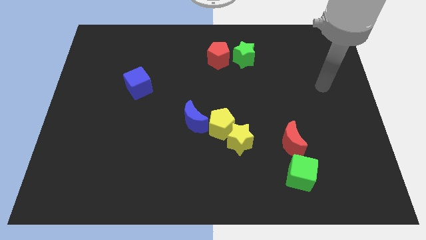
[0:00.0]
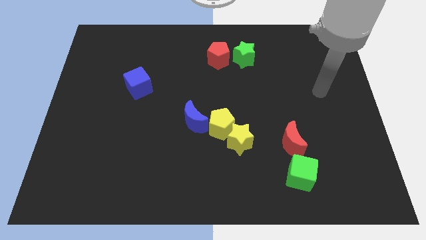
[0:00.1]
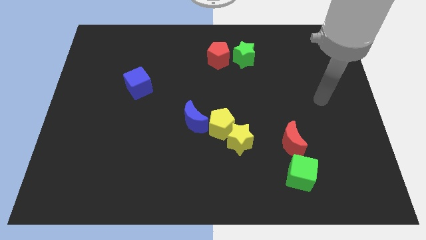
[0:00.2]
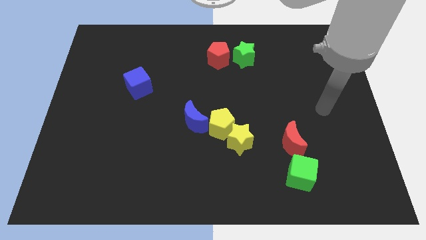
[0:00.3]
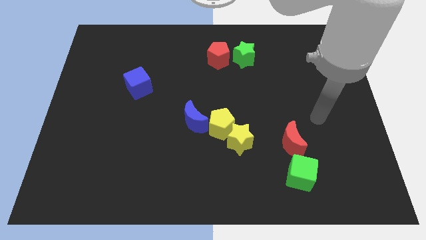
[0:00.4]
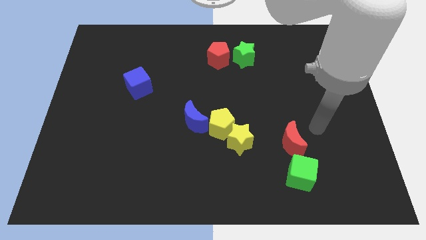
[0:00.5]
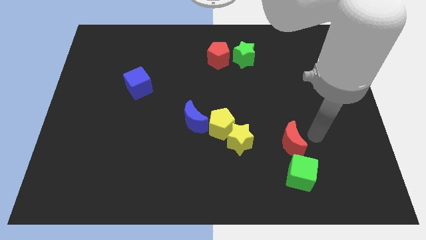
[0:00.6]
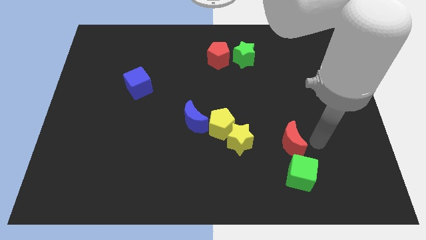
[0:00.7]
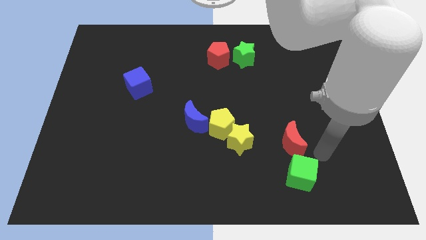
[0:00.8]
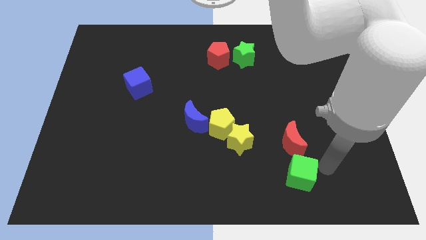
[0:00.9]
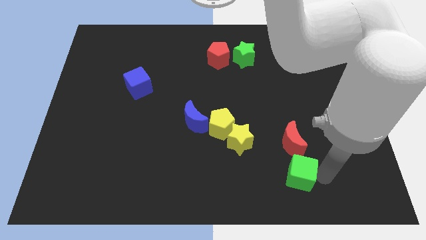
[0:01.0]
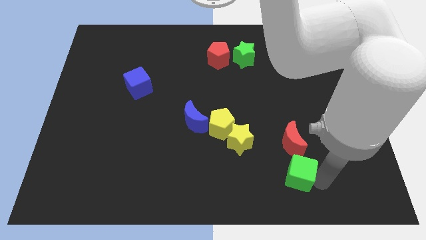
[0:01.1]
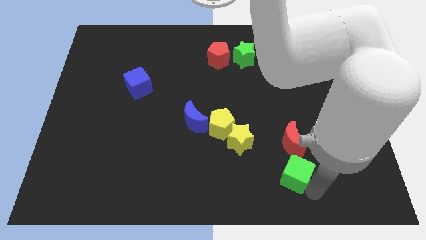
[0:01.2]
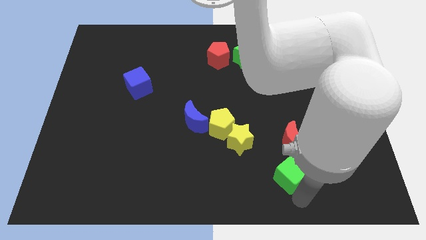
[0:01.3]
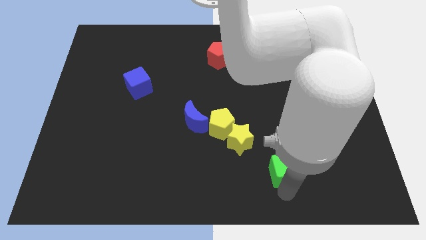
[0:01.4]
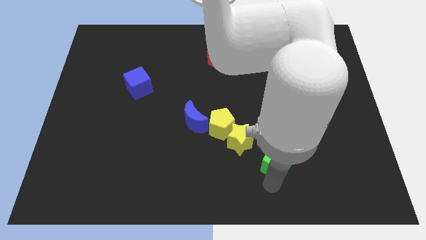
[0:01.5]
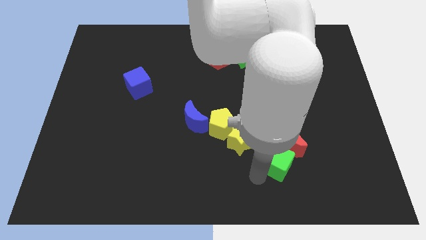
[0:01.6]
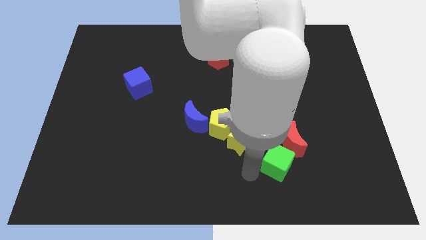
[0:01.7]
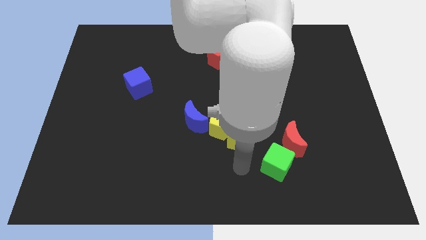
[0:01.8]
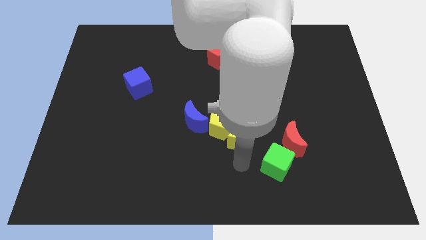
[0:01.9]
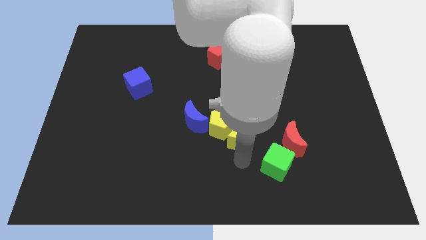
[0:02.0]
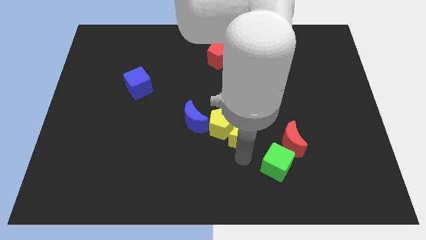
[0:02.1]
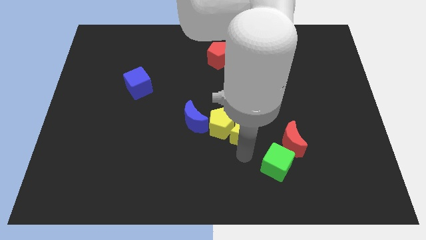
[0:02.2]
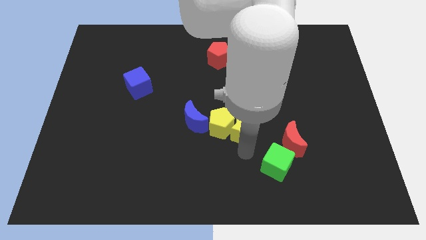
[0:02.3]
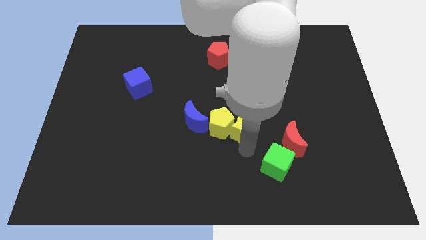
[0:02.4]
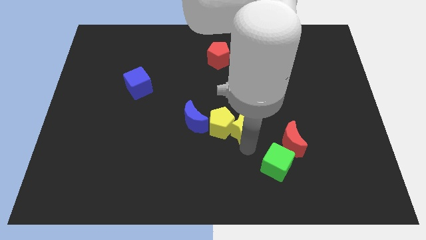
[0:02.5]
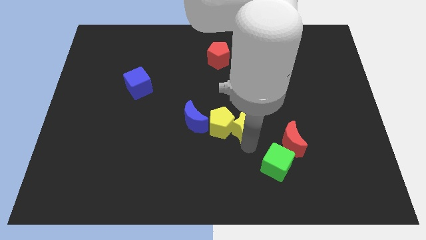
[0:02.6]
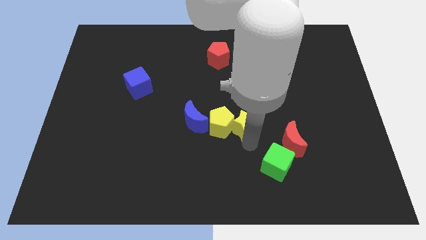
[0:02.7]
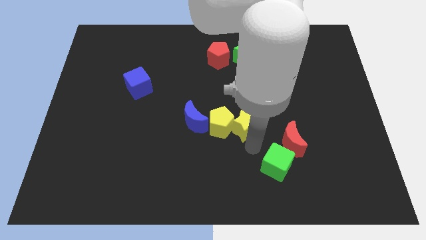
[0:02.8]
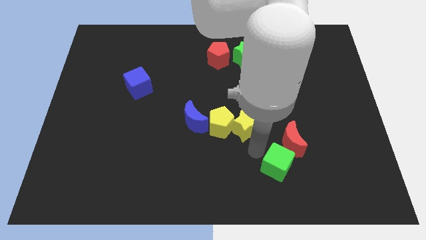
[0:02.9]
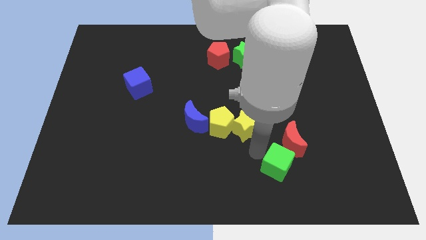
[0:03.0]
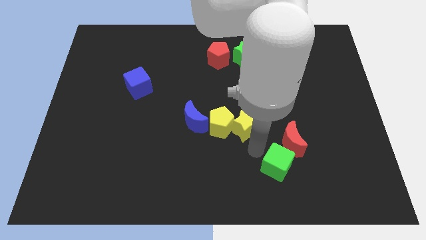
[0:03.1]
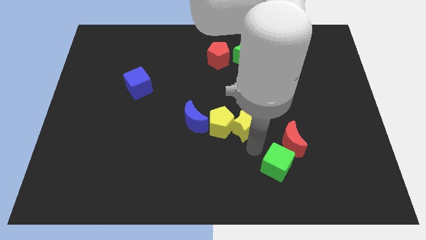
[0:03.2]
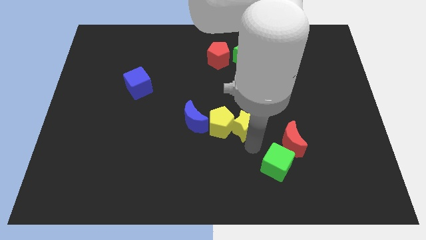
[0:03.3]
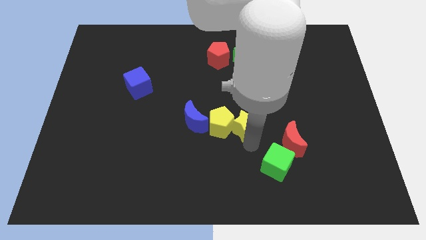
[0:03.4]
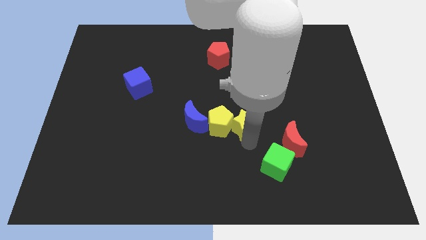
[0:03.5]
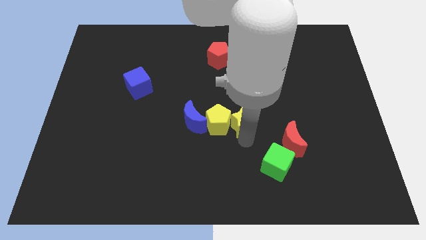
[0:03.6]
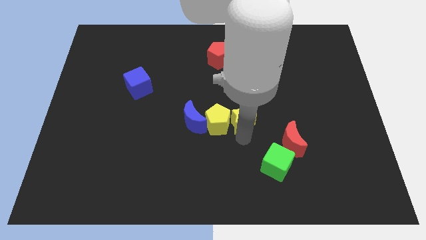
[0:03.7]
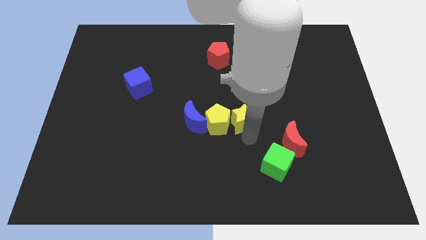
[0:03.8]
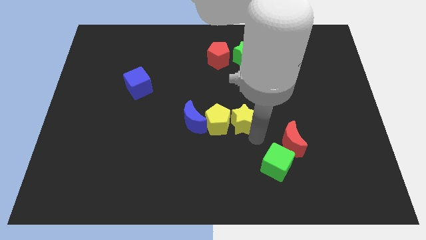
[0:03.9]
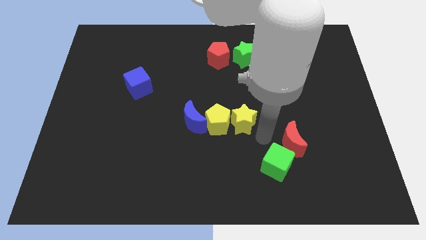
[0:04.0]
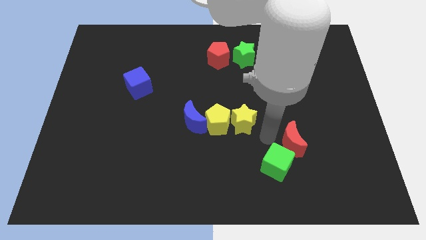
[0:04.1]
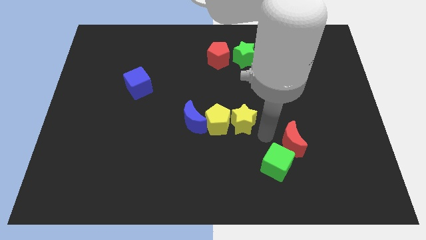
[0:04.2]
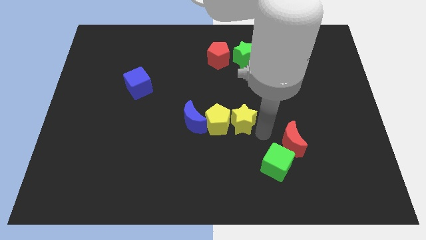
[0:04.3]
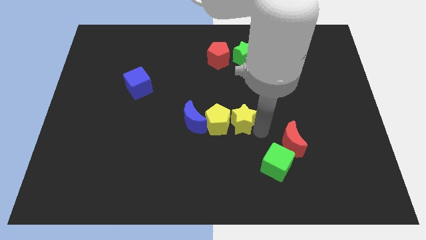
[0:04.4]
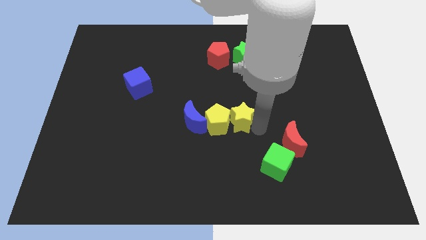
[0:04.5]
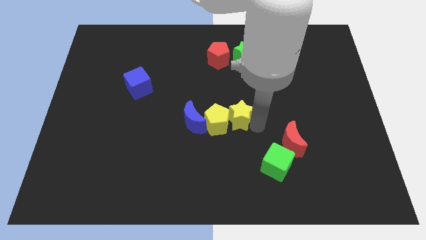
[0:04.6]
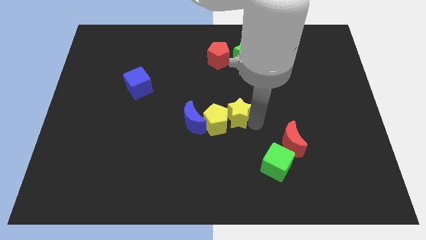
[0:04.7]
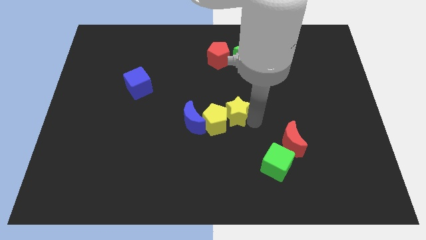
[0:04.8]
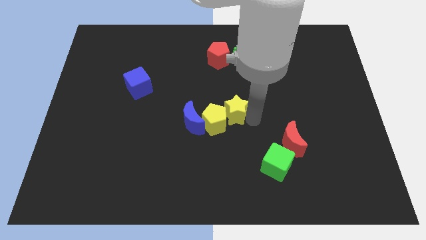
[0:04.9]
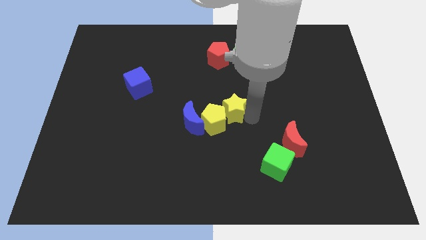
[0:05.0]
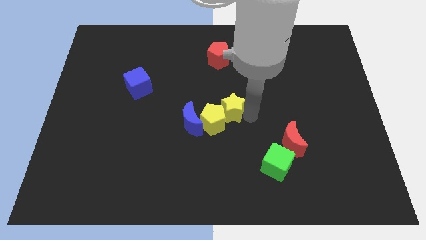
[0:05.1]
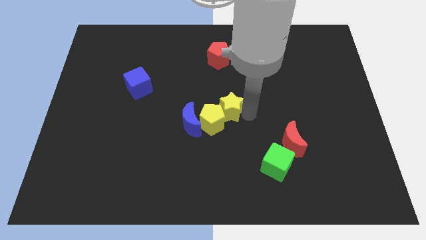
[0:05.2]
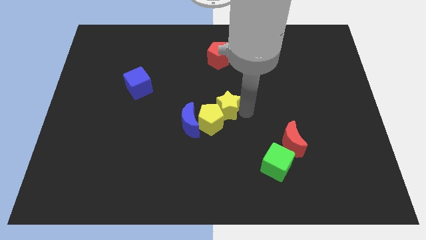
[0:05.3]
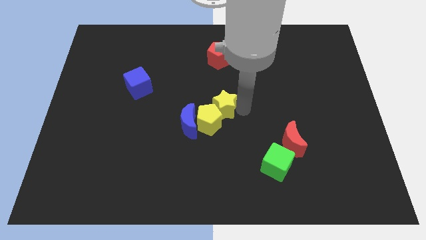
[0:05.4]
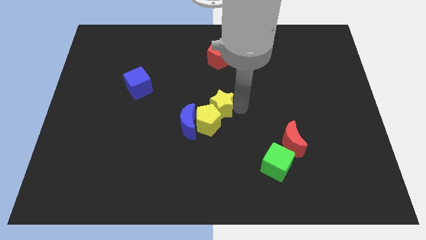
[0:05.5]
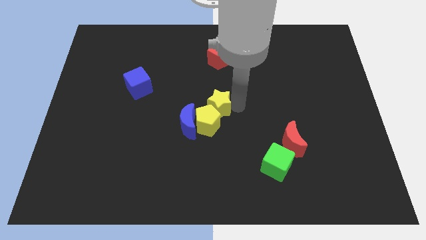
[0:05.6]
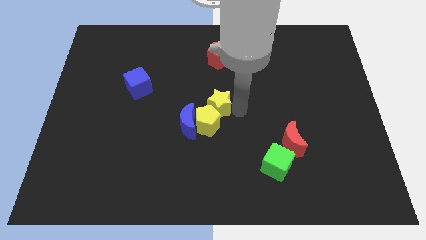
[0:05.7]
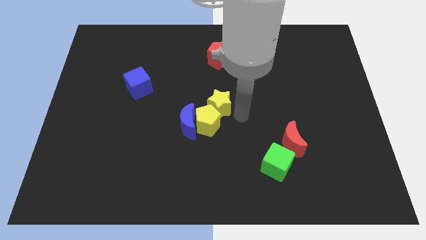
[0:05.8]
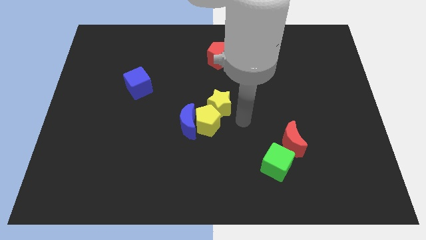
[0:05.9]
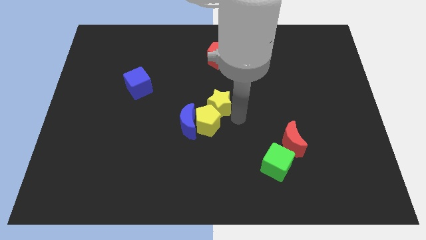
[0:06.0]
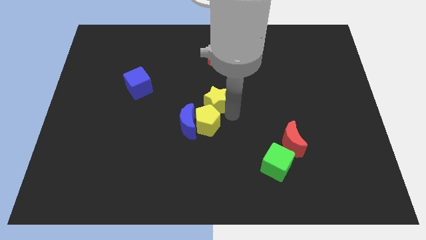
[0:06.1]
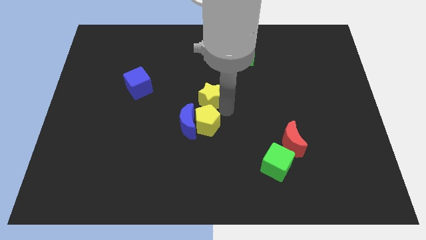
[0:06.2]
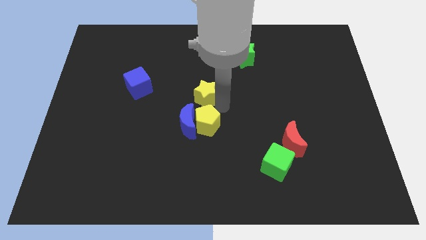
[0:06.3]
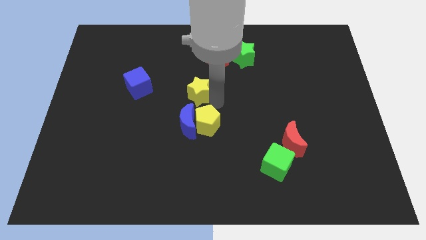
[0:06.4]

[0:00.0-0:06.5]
slide the yellow star to the right side of the blue cube

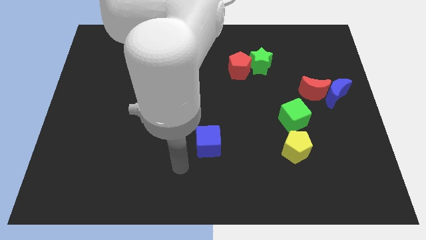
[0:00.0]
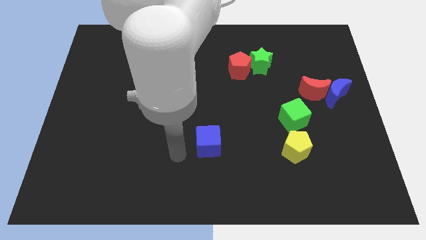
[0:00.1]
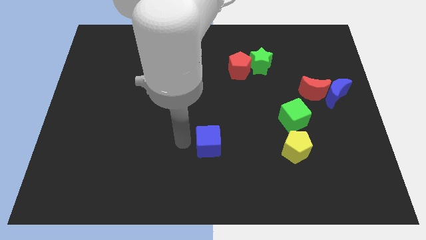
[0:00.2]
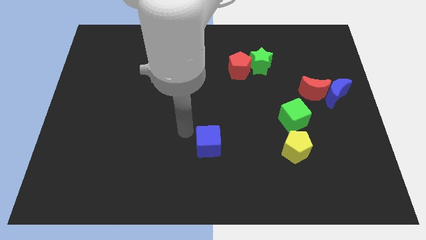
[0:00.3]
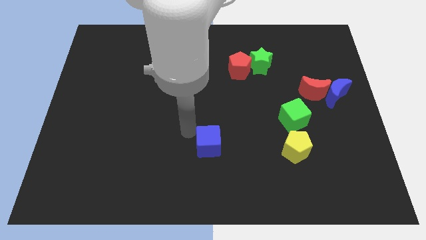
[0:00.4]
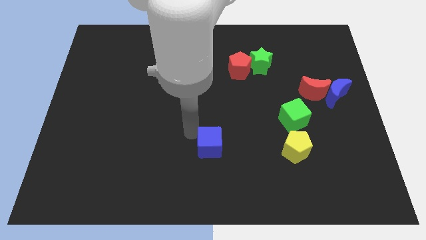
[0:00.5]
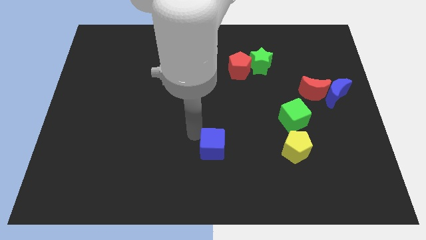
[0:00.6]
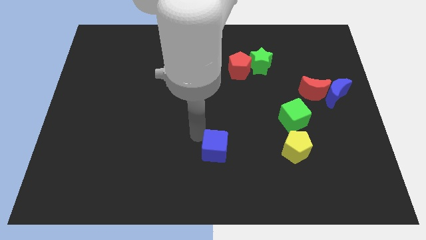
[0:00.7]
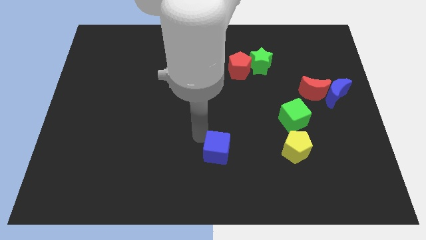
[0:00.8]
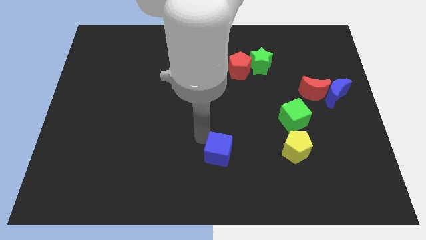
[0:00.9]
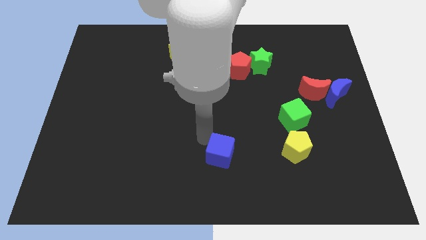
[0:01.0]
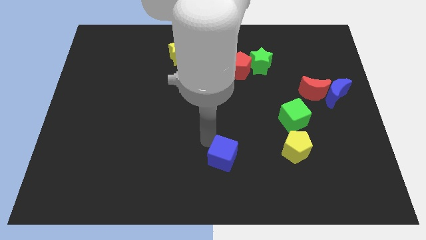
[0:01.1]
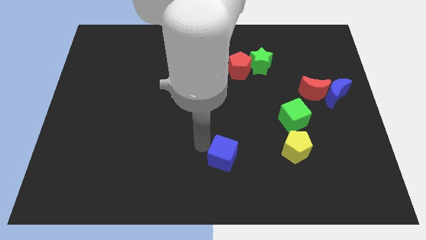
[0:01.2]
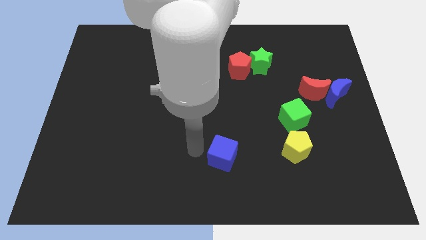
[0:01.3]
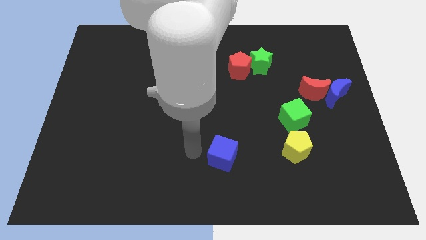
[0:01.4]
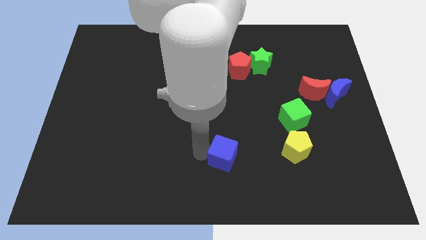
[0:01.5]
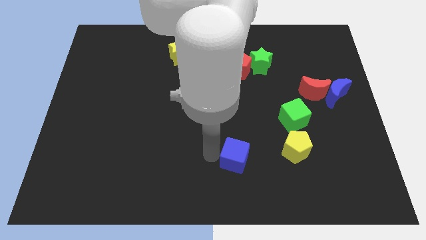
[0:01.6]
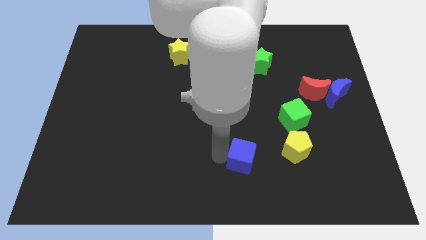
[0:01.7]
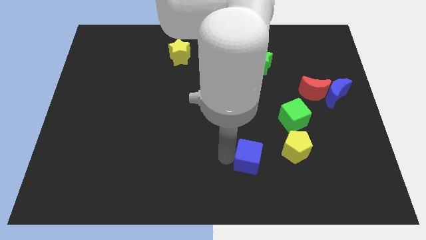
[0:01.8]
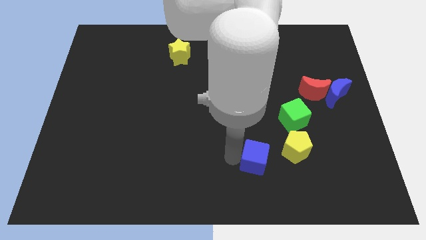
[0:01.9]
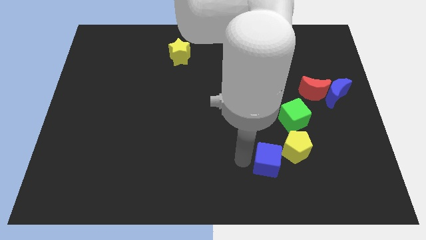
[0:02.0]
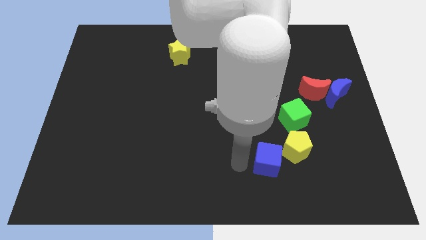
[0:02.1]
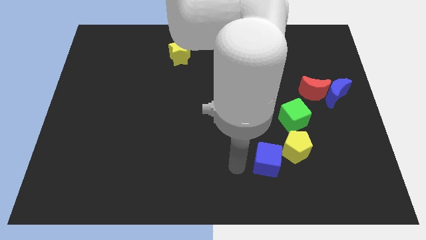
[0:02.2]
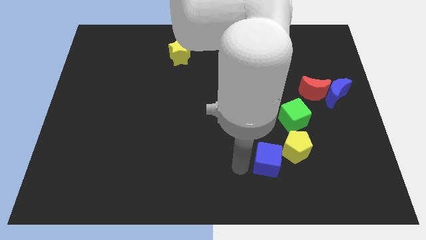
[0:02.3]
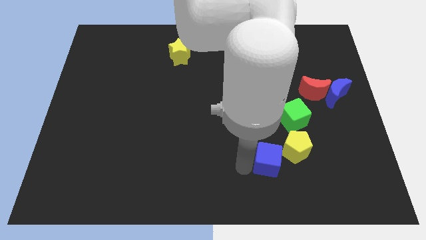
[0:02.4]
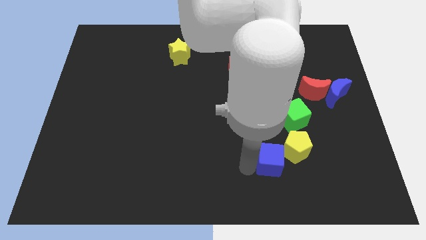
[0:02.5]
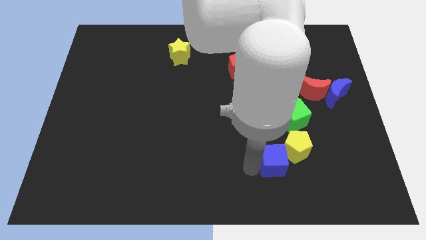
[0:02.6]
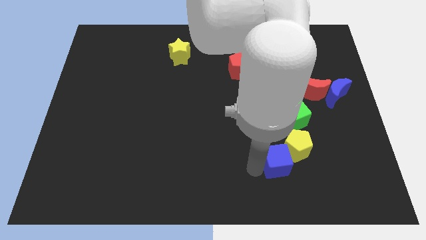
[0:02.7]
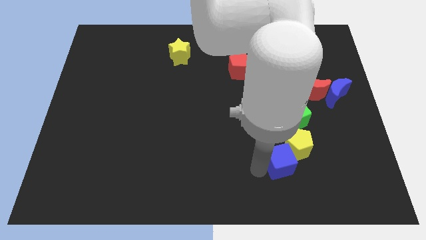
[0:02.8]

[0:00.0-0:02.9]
put the blue cube below the green cube
